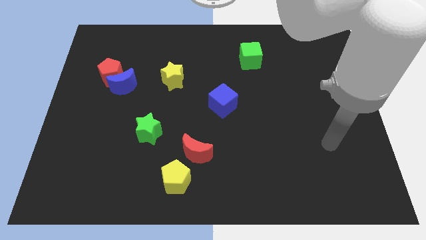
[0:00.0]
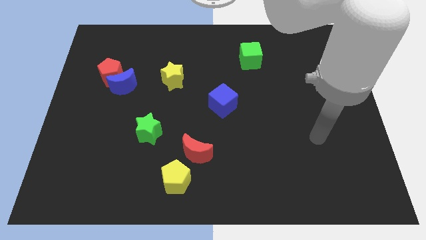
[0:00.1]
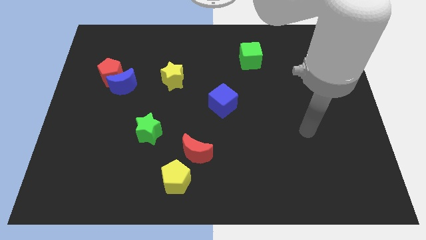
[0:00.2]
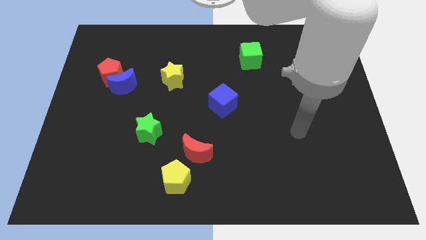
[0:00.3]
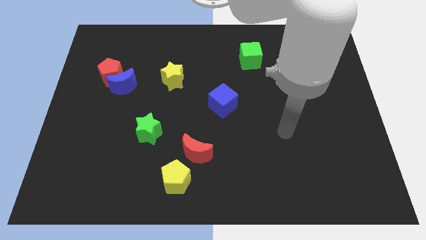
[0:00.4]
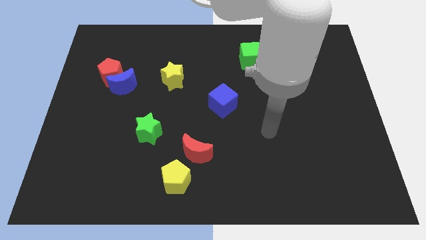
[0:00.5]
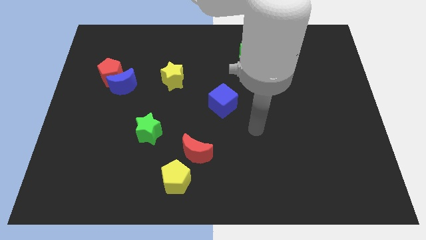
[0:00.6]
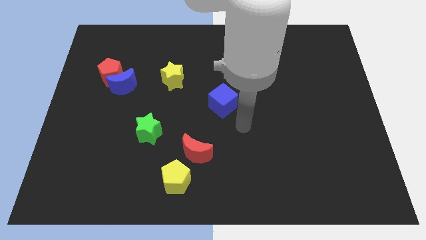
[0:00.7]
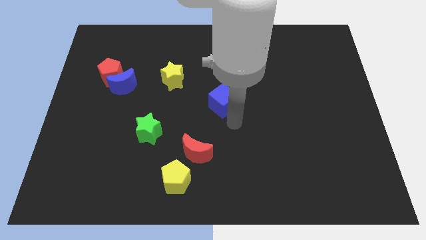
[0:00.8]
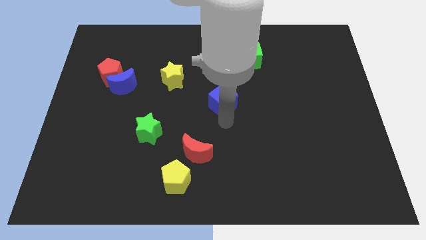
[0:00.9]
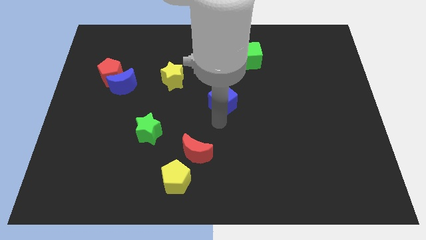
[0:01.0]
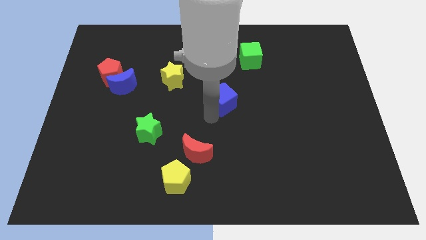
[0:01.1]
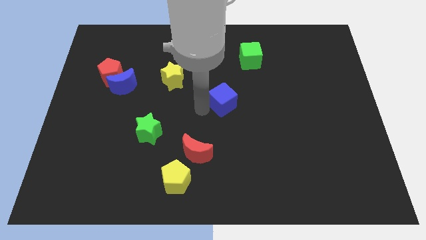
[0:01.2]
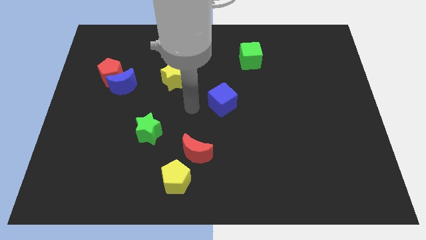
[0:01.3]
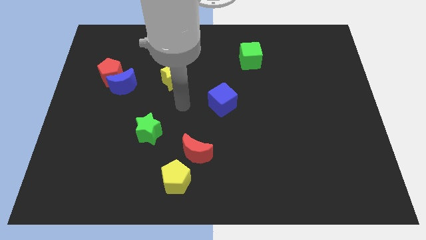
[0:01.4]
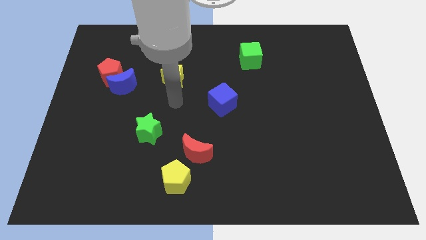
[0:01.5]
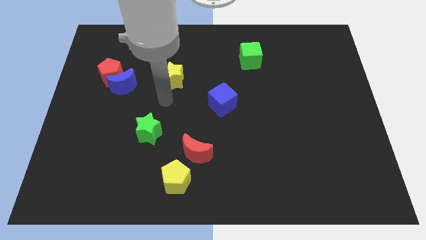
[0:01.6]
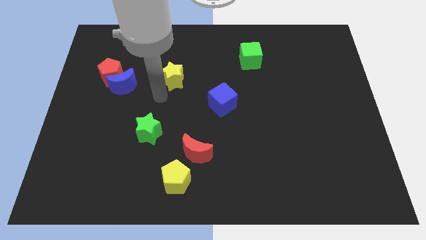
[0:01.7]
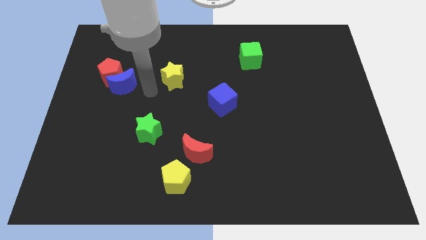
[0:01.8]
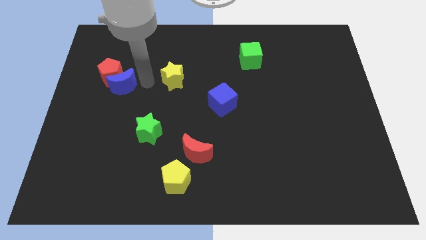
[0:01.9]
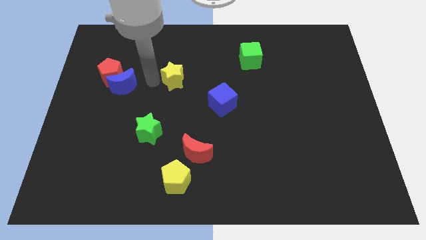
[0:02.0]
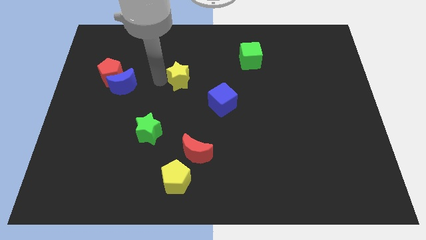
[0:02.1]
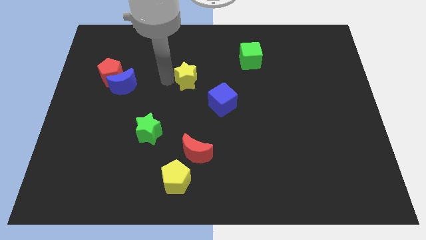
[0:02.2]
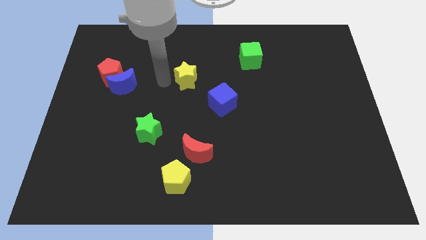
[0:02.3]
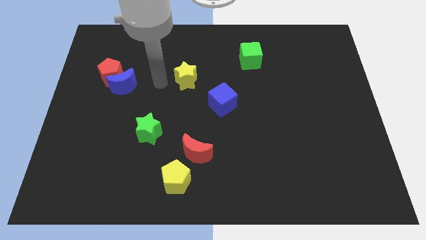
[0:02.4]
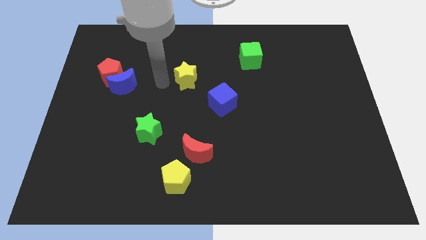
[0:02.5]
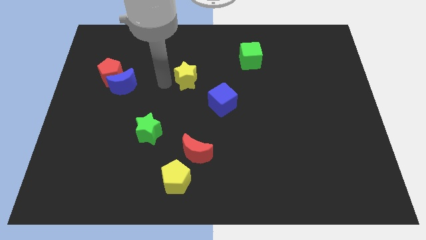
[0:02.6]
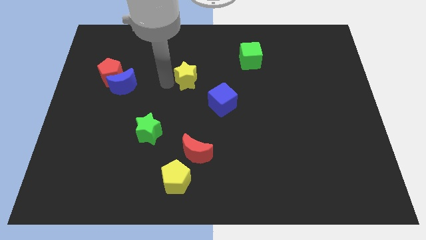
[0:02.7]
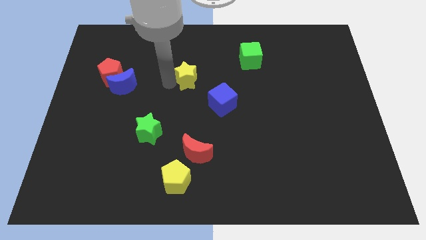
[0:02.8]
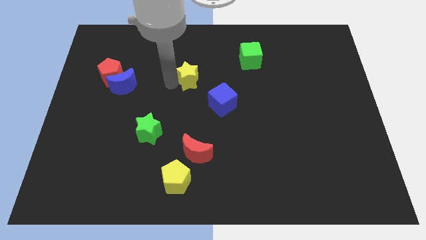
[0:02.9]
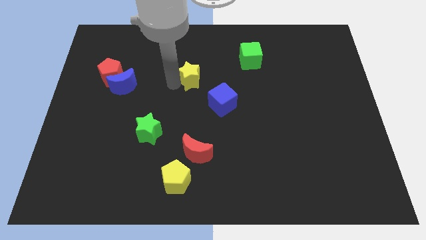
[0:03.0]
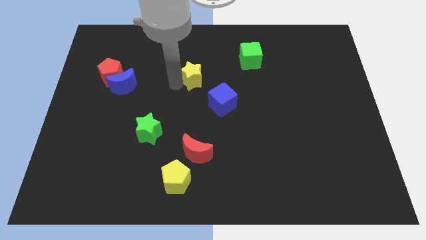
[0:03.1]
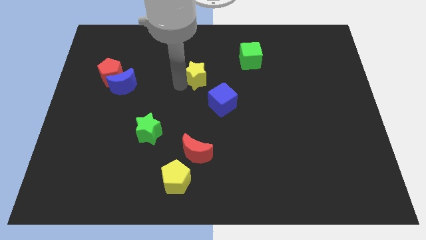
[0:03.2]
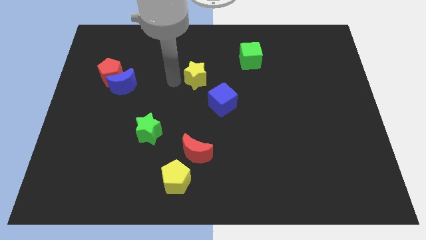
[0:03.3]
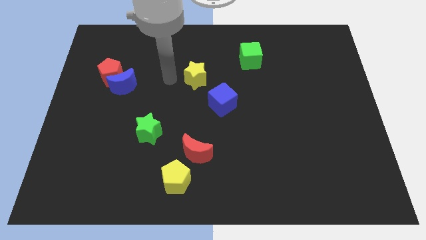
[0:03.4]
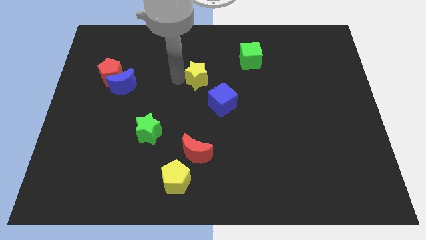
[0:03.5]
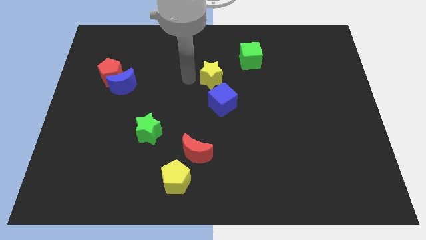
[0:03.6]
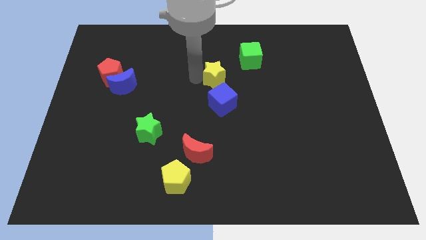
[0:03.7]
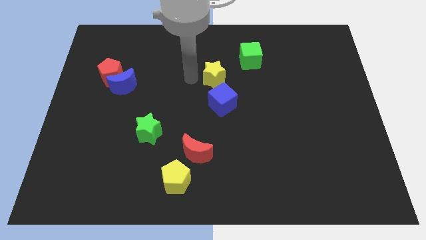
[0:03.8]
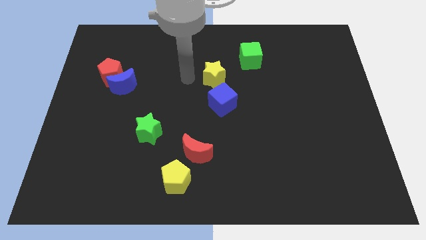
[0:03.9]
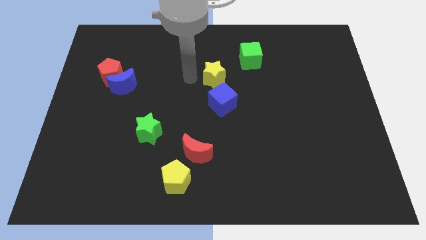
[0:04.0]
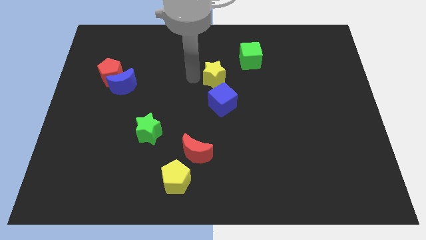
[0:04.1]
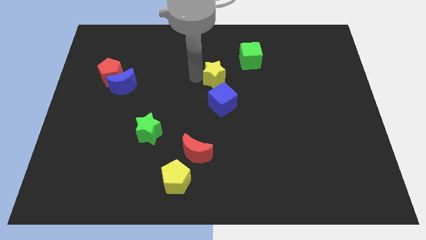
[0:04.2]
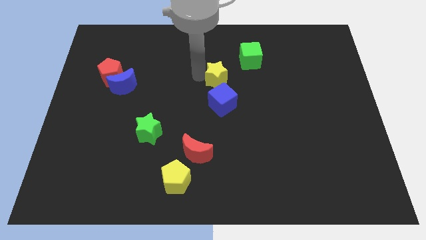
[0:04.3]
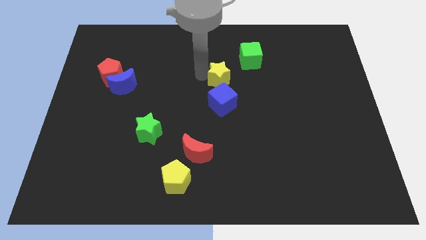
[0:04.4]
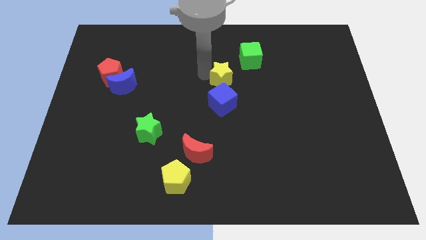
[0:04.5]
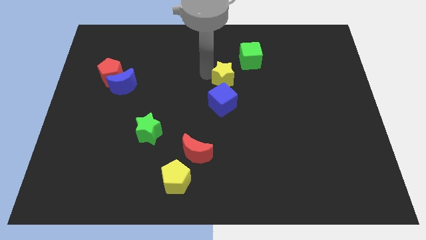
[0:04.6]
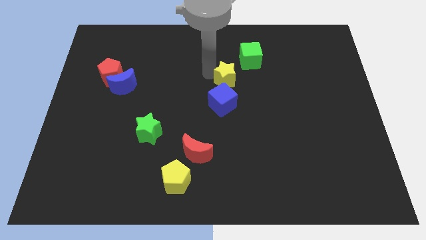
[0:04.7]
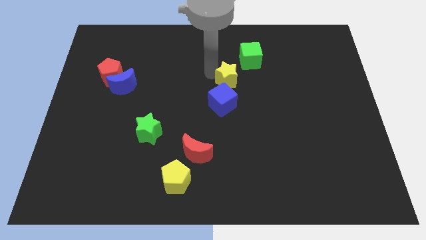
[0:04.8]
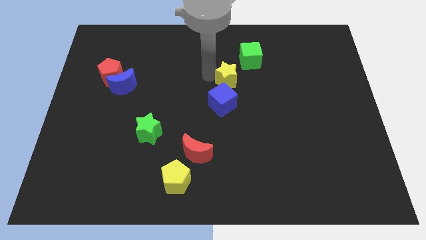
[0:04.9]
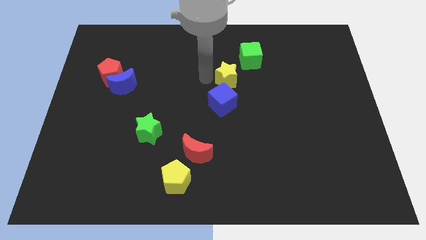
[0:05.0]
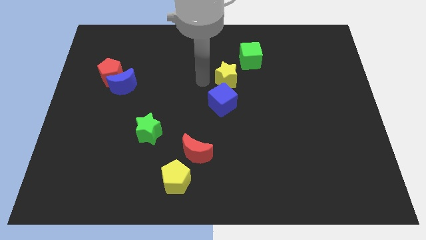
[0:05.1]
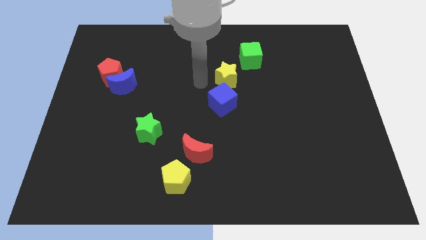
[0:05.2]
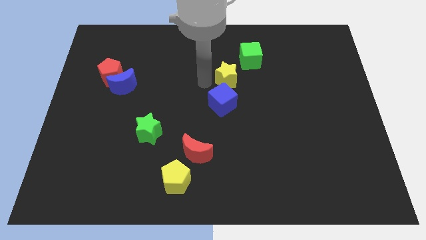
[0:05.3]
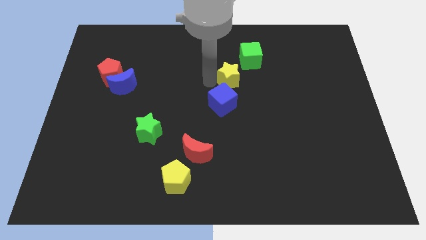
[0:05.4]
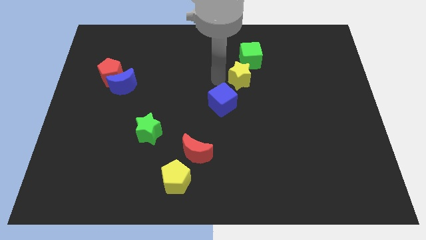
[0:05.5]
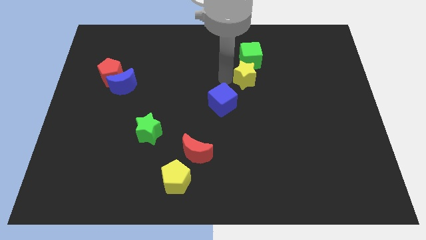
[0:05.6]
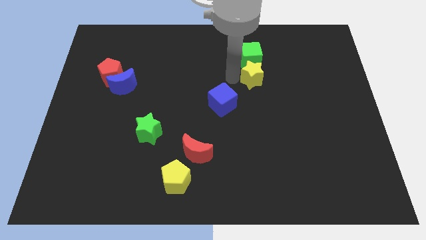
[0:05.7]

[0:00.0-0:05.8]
move the yellow star right

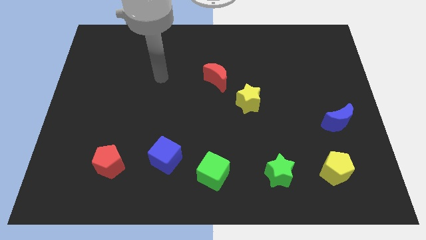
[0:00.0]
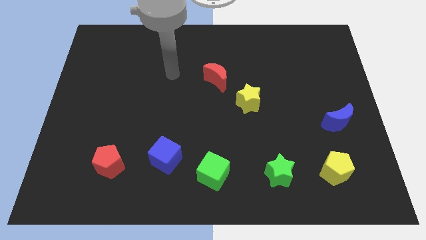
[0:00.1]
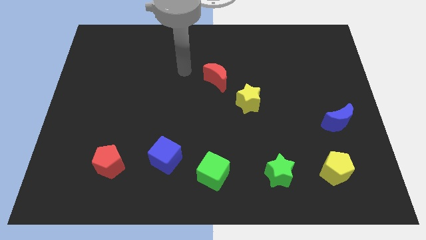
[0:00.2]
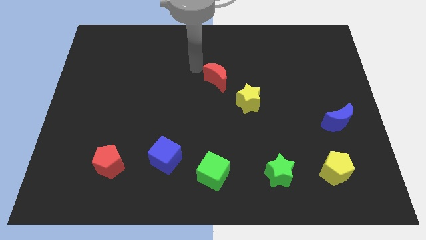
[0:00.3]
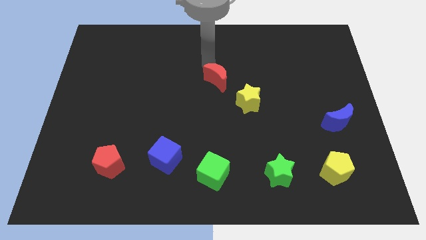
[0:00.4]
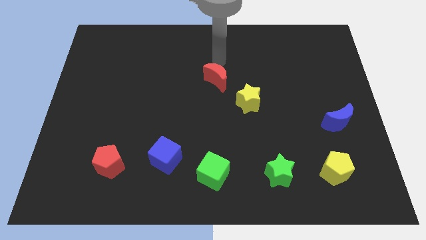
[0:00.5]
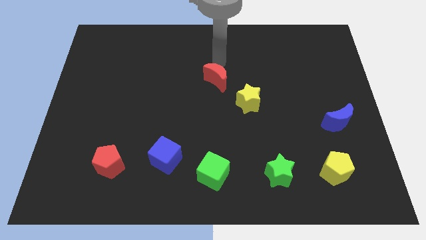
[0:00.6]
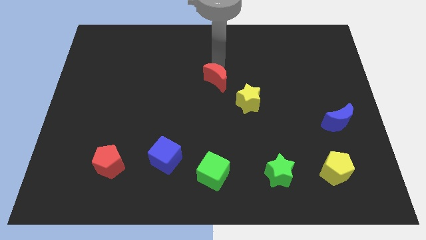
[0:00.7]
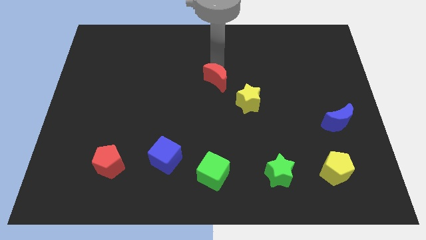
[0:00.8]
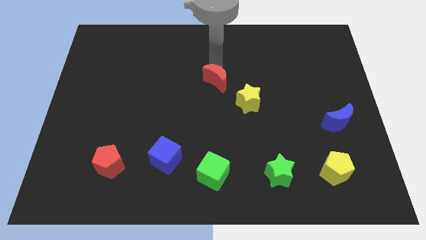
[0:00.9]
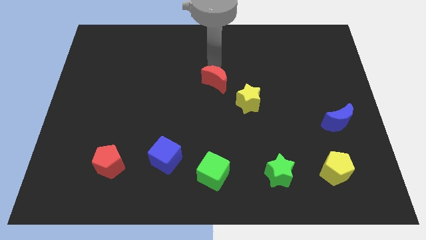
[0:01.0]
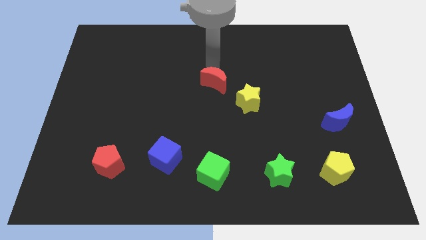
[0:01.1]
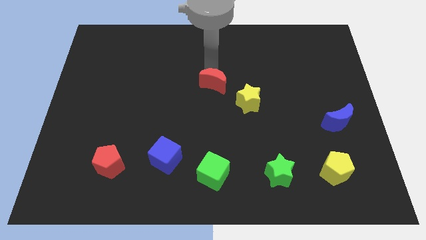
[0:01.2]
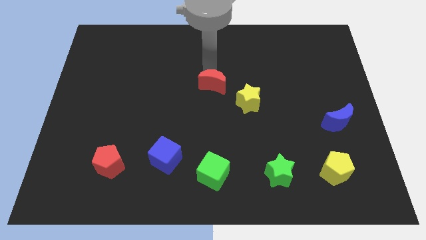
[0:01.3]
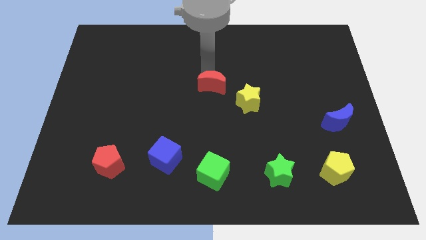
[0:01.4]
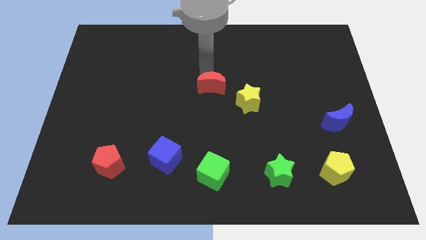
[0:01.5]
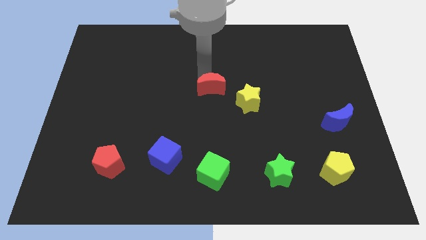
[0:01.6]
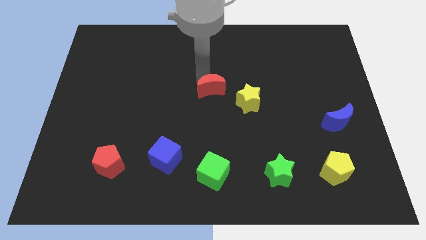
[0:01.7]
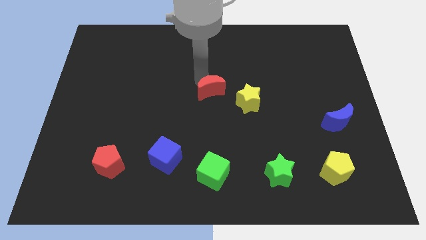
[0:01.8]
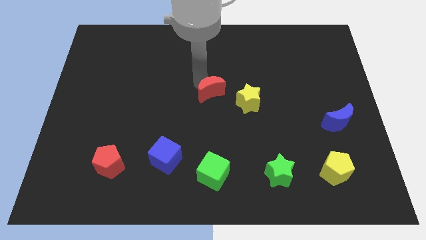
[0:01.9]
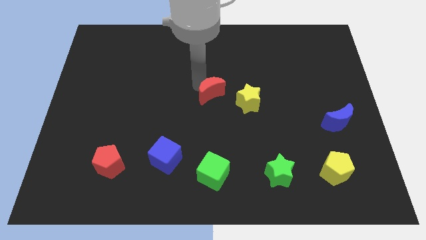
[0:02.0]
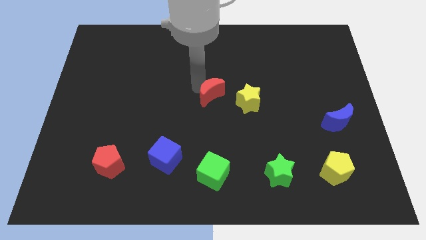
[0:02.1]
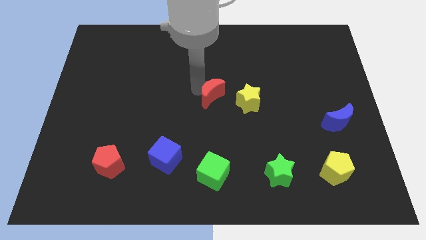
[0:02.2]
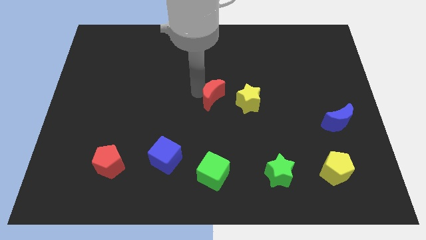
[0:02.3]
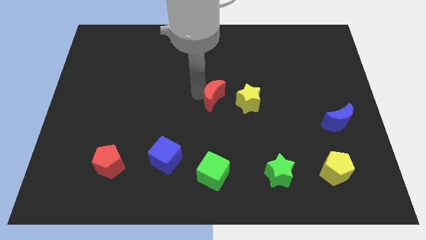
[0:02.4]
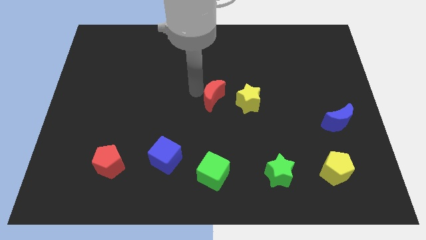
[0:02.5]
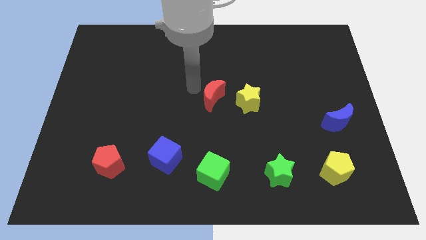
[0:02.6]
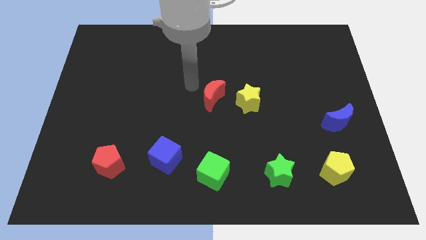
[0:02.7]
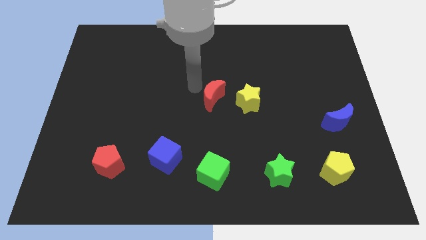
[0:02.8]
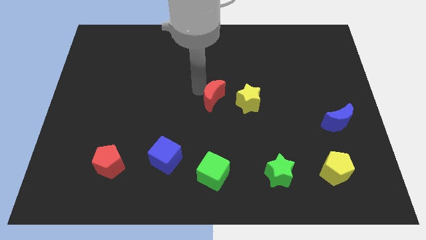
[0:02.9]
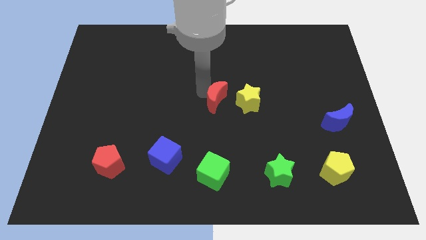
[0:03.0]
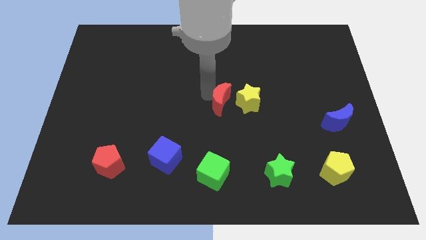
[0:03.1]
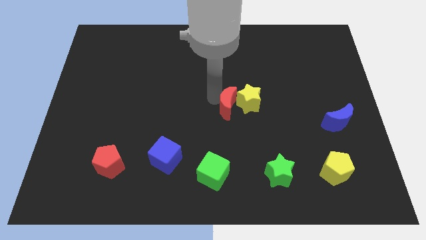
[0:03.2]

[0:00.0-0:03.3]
slide the red moon slightly diagonally down and right
